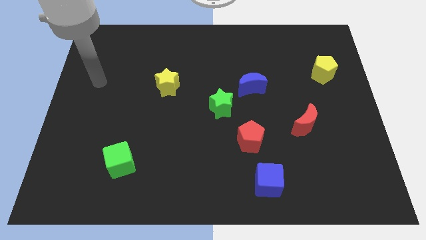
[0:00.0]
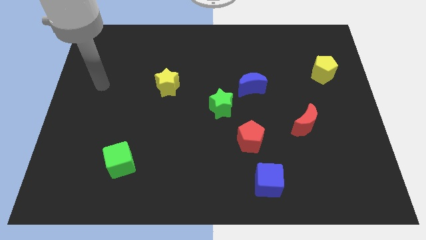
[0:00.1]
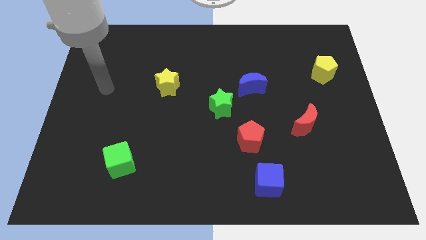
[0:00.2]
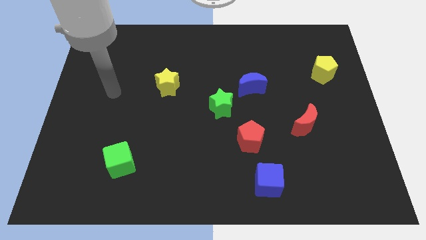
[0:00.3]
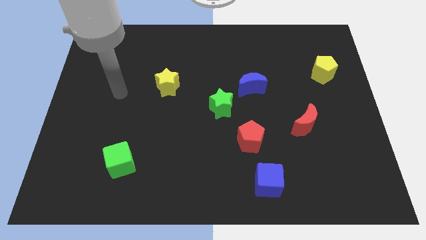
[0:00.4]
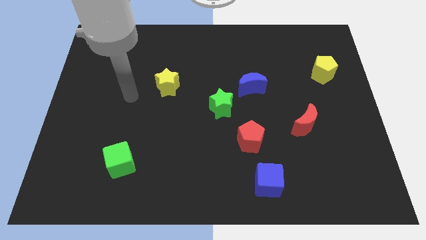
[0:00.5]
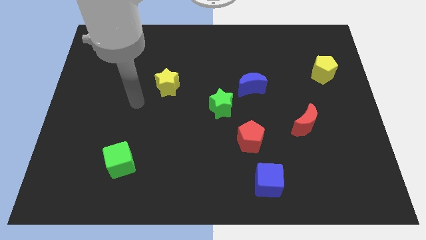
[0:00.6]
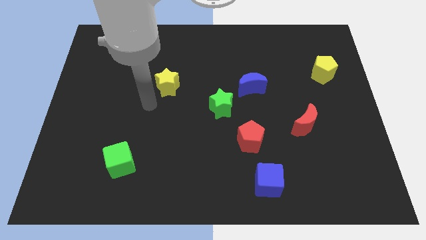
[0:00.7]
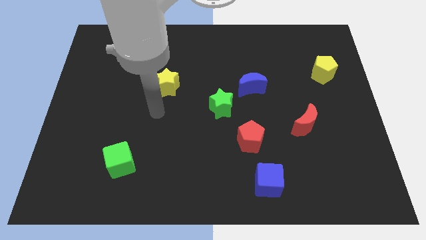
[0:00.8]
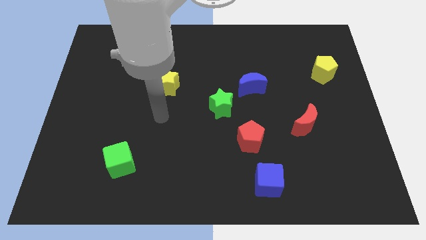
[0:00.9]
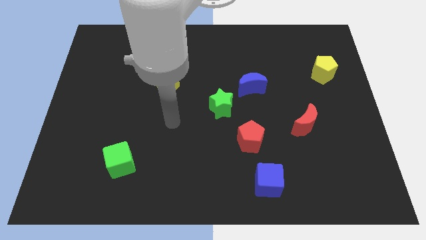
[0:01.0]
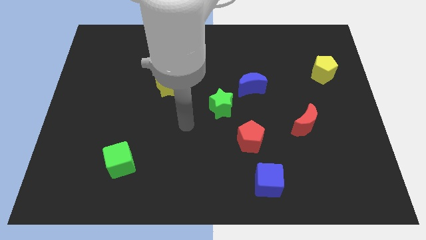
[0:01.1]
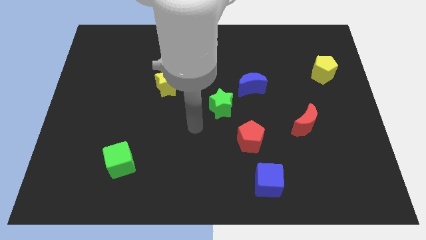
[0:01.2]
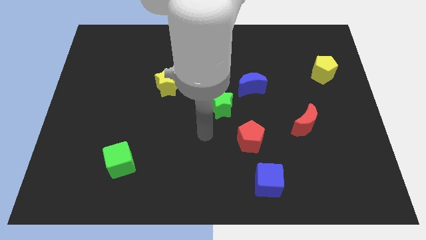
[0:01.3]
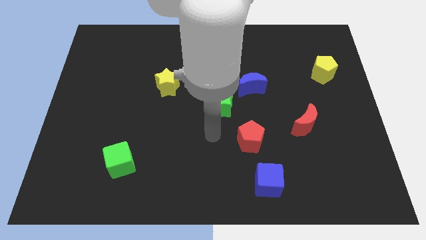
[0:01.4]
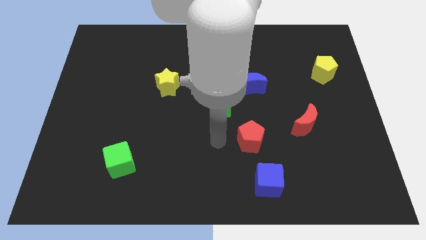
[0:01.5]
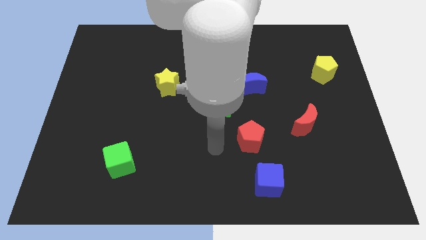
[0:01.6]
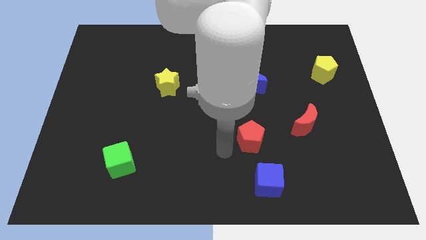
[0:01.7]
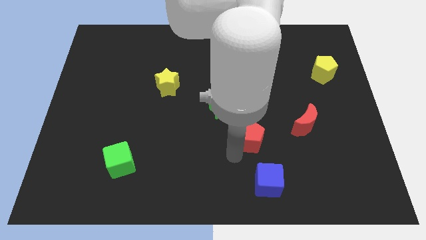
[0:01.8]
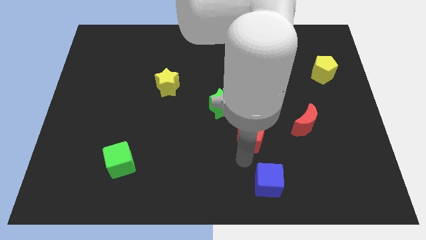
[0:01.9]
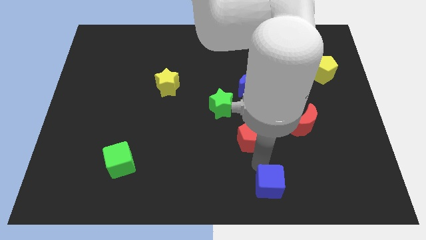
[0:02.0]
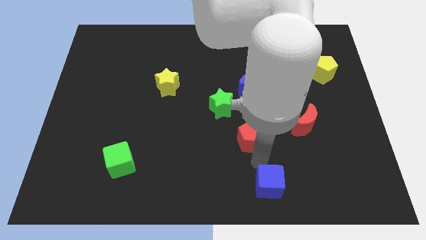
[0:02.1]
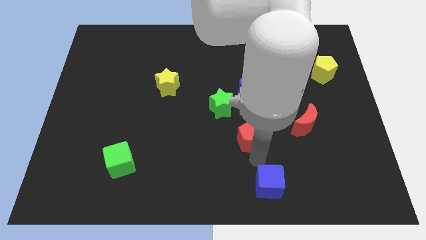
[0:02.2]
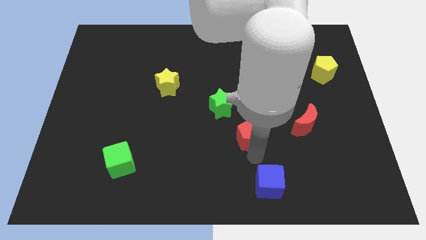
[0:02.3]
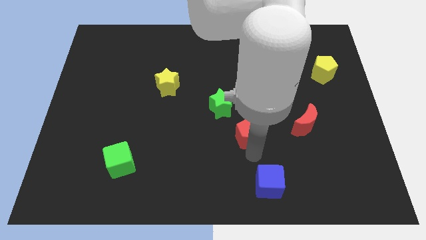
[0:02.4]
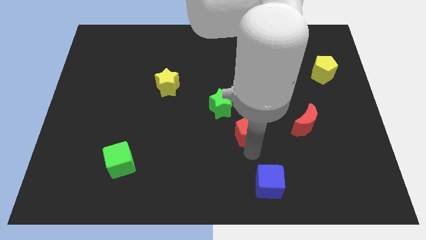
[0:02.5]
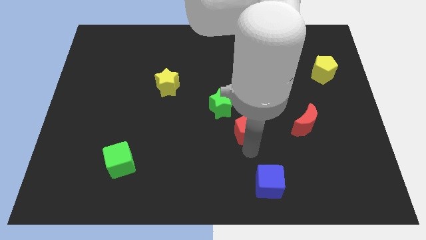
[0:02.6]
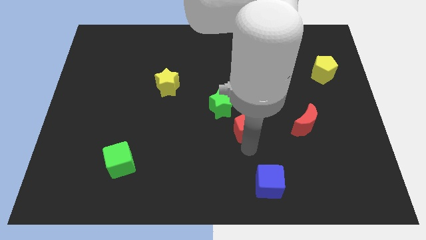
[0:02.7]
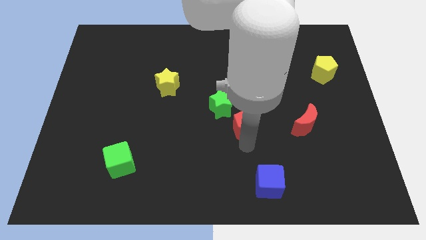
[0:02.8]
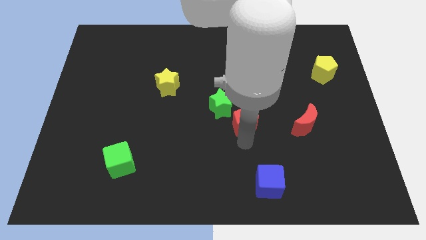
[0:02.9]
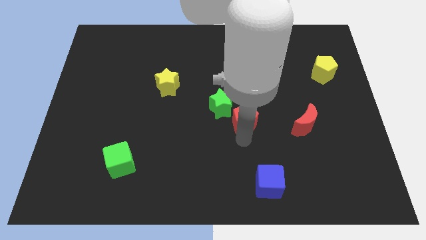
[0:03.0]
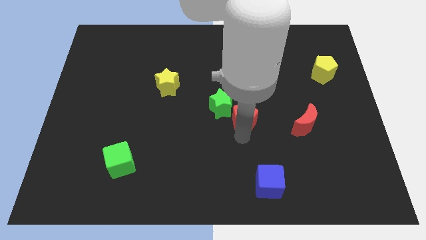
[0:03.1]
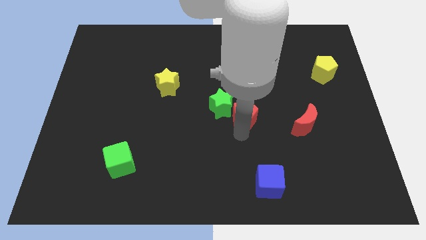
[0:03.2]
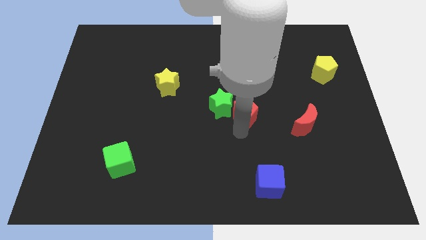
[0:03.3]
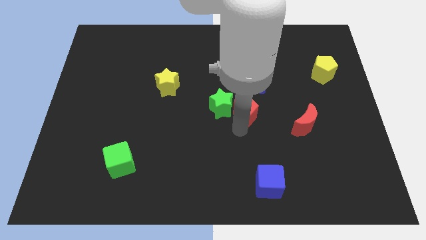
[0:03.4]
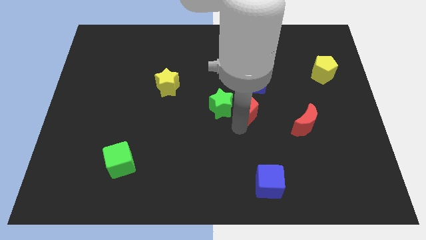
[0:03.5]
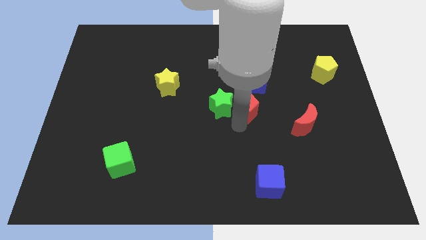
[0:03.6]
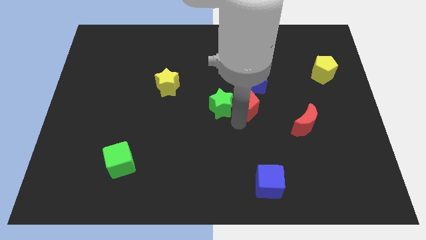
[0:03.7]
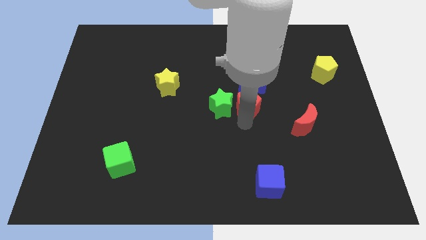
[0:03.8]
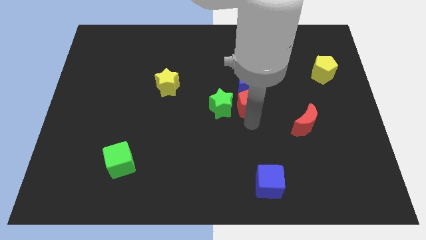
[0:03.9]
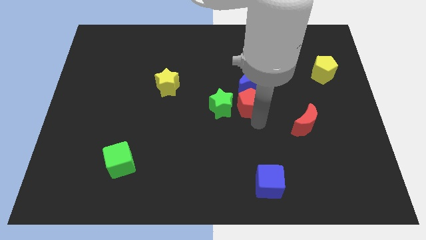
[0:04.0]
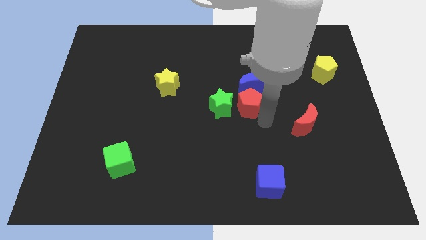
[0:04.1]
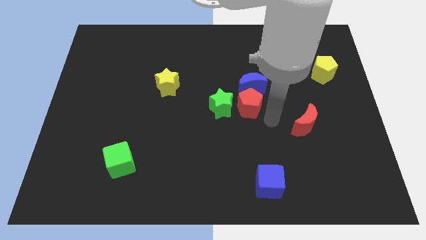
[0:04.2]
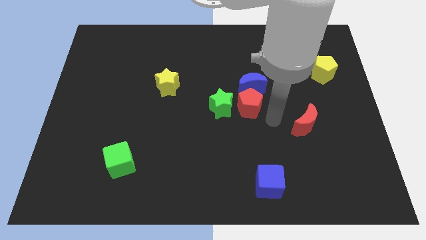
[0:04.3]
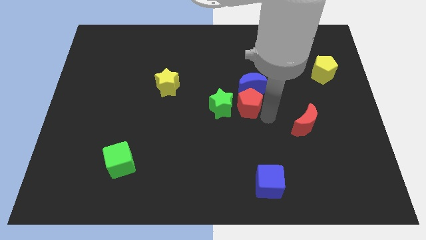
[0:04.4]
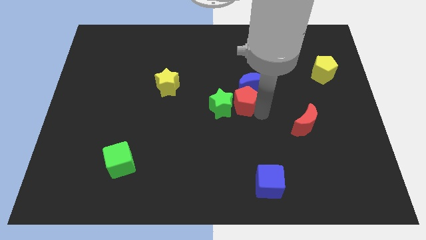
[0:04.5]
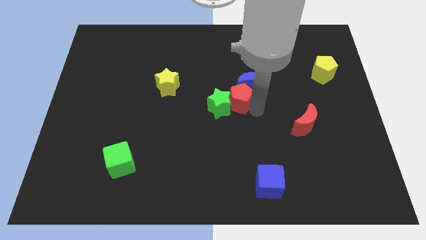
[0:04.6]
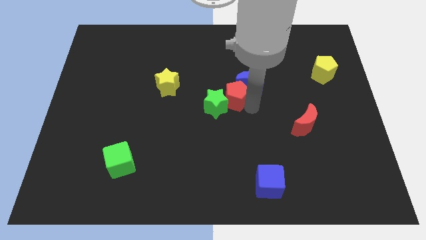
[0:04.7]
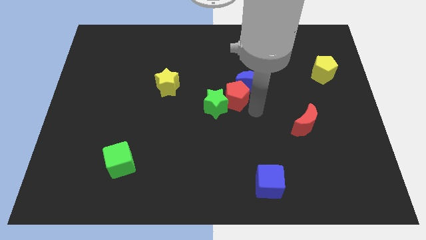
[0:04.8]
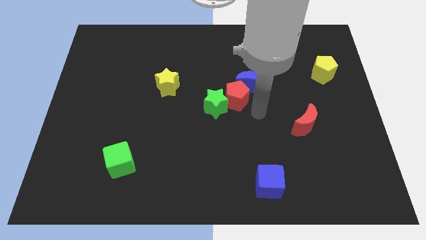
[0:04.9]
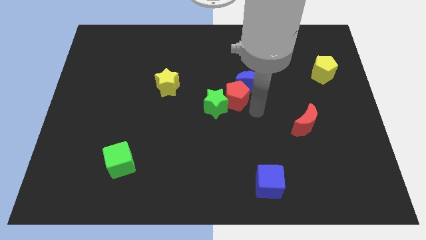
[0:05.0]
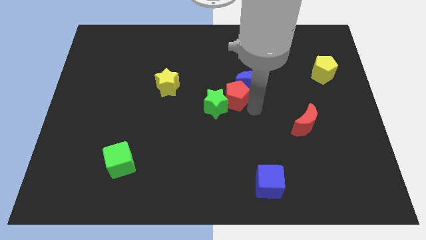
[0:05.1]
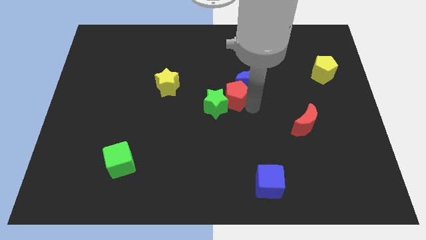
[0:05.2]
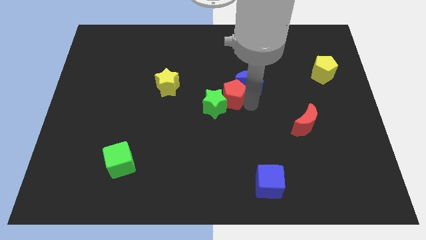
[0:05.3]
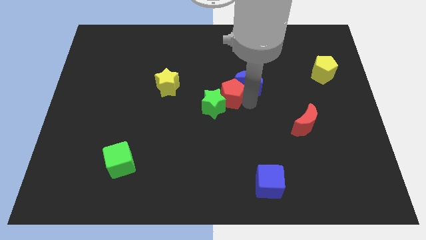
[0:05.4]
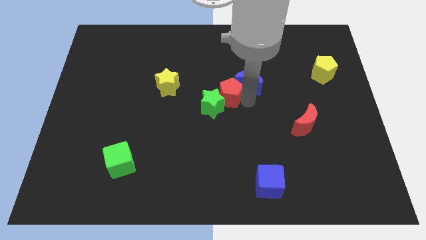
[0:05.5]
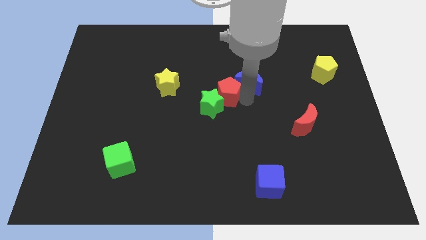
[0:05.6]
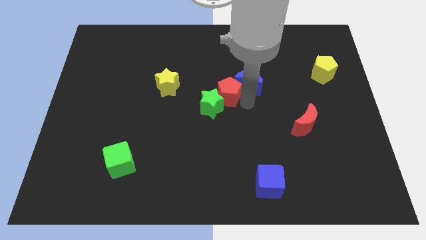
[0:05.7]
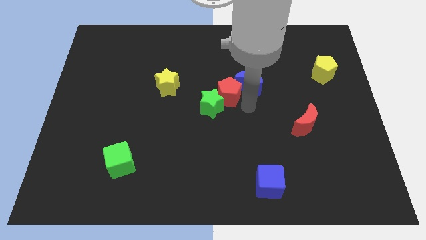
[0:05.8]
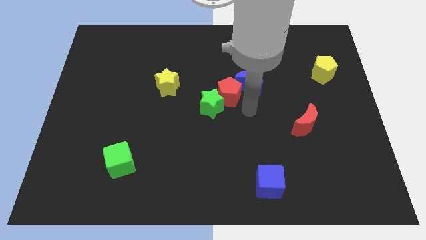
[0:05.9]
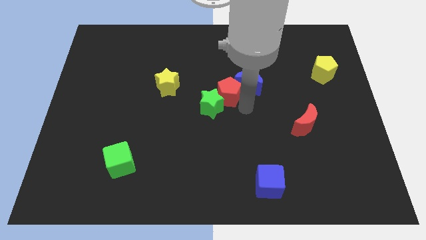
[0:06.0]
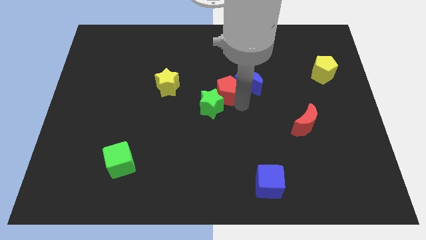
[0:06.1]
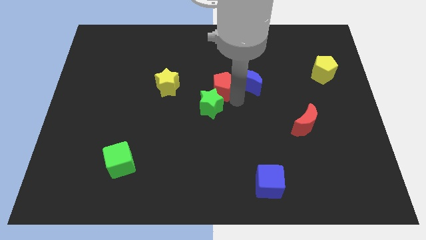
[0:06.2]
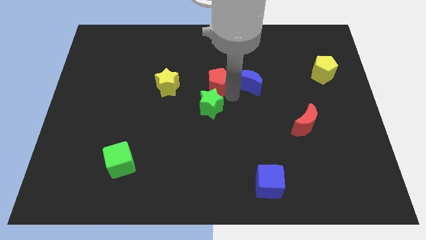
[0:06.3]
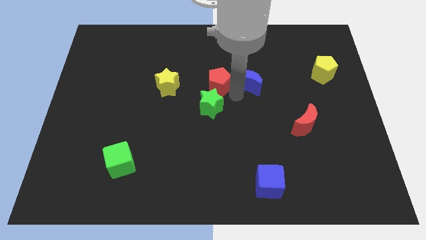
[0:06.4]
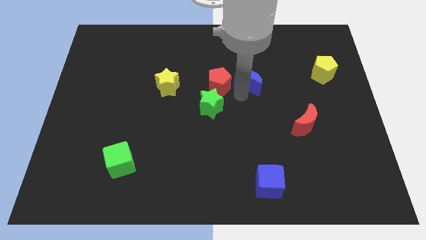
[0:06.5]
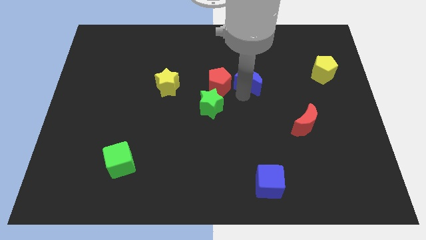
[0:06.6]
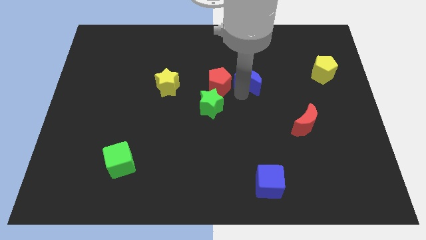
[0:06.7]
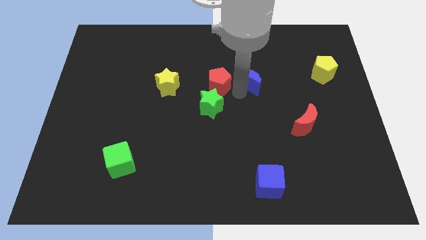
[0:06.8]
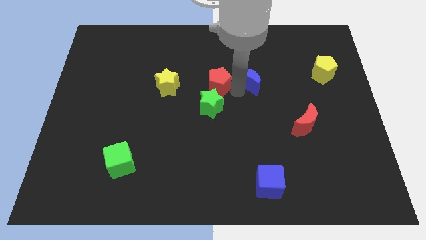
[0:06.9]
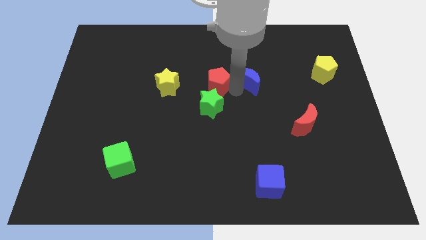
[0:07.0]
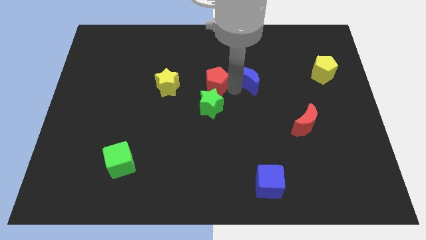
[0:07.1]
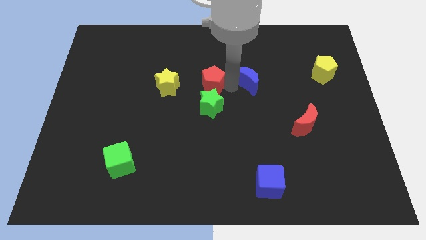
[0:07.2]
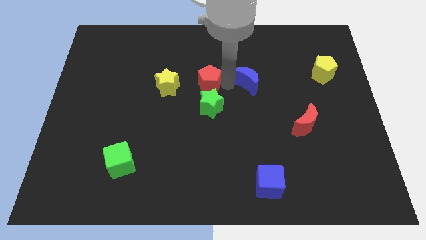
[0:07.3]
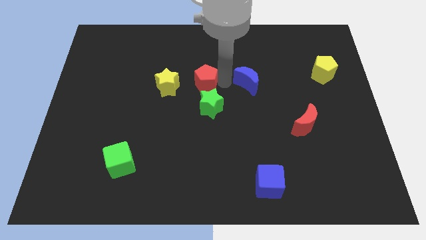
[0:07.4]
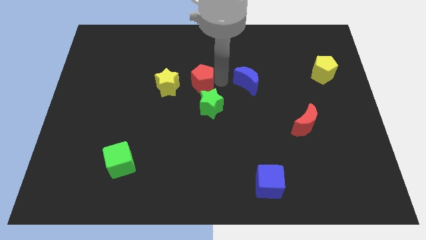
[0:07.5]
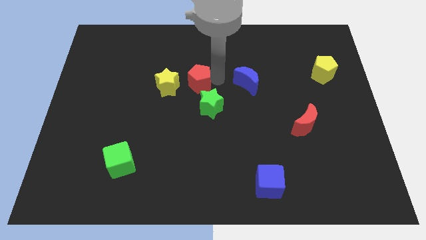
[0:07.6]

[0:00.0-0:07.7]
move the red pentagon diagonally upwards and to the left

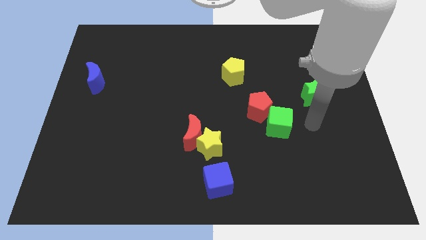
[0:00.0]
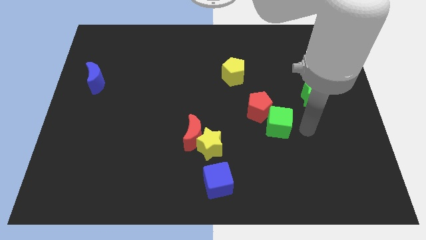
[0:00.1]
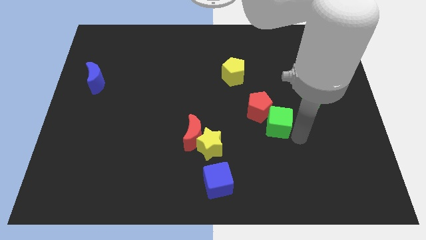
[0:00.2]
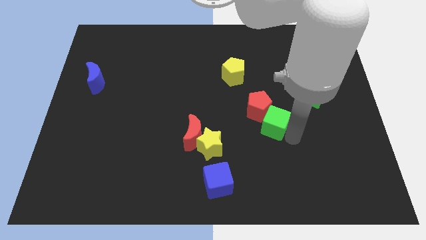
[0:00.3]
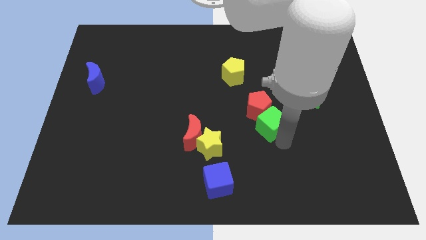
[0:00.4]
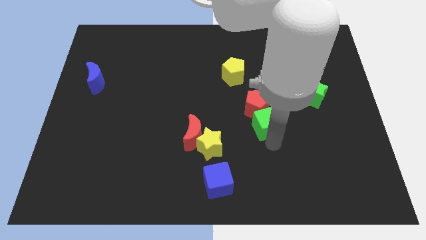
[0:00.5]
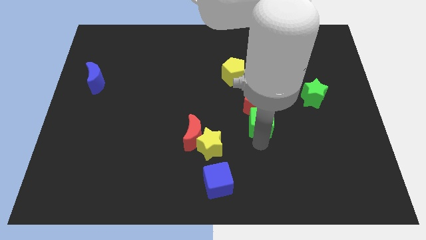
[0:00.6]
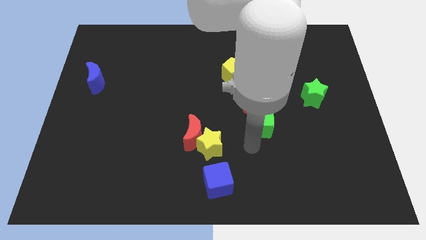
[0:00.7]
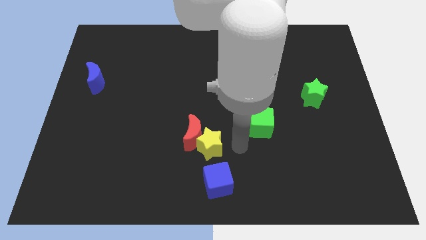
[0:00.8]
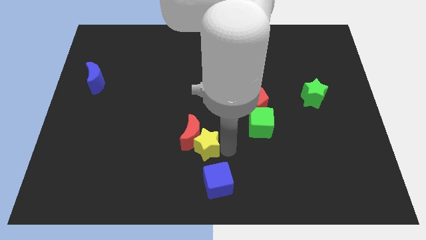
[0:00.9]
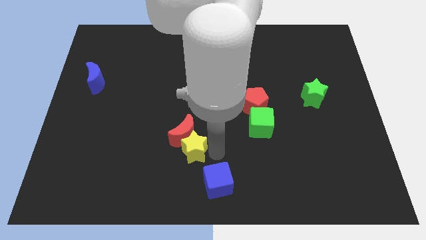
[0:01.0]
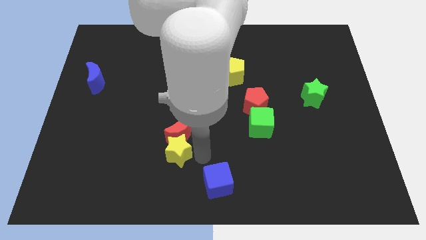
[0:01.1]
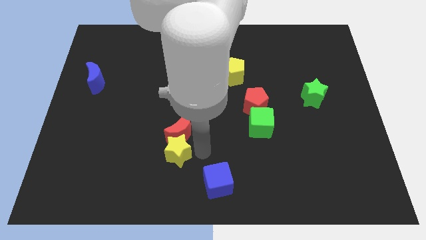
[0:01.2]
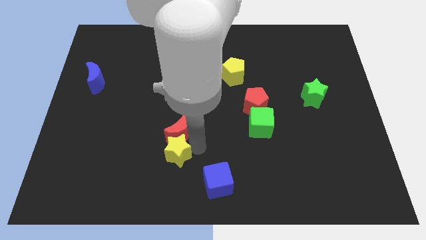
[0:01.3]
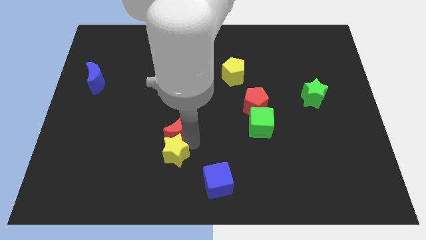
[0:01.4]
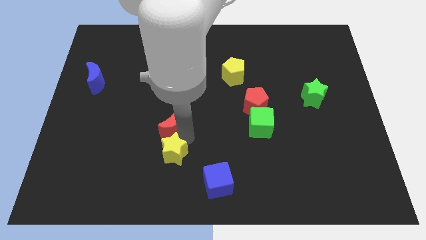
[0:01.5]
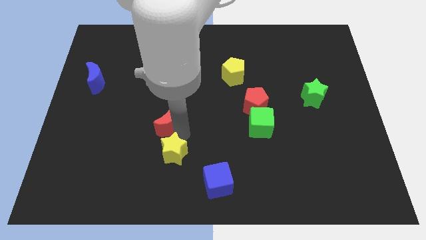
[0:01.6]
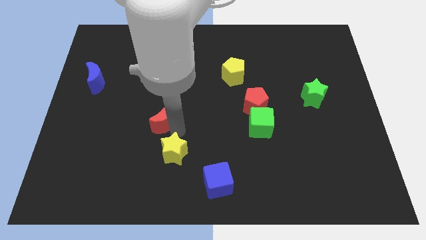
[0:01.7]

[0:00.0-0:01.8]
slide the red moon somewhat diagonally up and to the left
